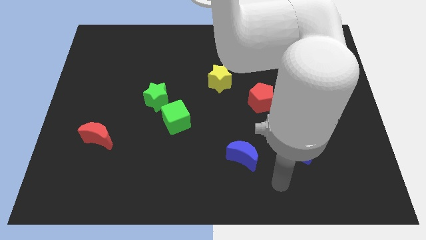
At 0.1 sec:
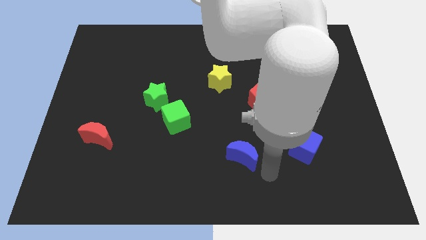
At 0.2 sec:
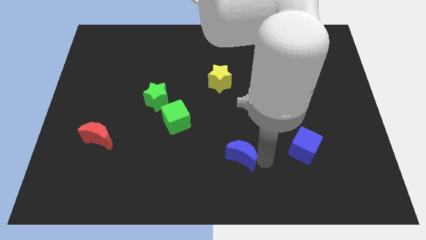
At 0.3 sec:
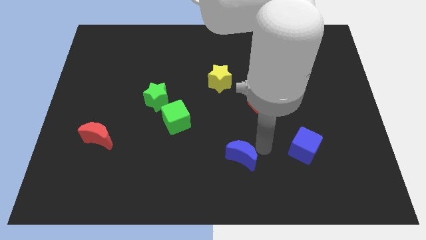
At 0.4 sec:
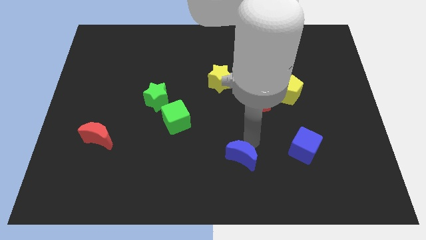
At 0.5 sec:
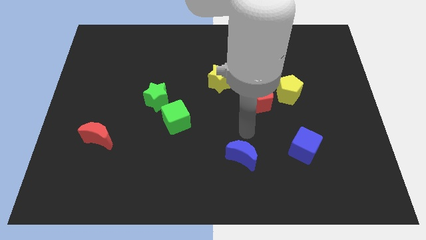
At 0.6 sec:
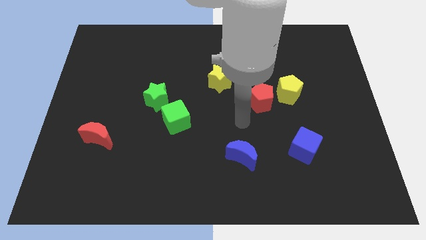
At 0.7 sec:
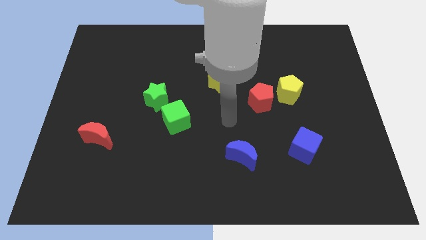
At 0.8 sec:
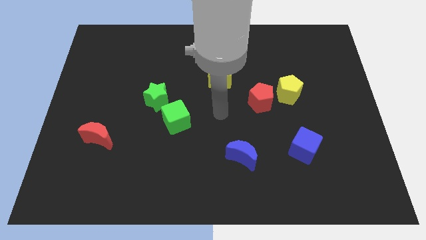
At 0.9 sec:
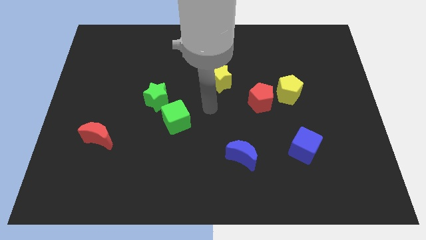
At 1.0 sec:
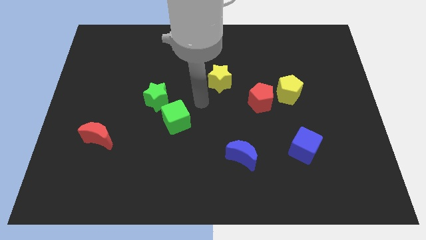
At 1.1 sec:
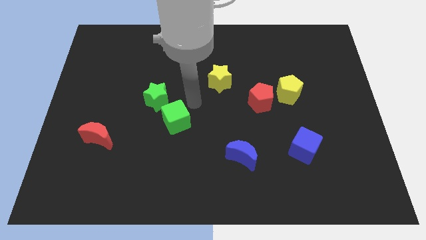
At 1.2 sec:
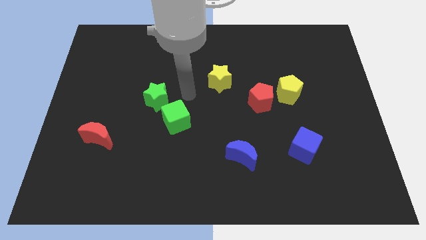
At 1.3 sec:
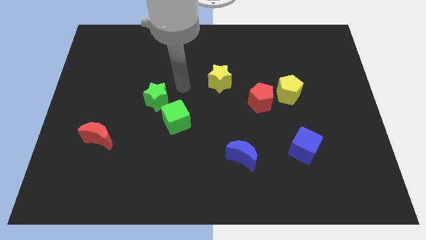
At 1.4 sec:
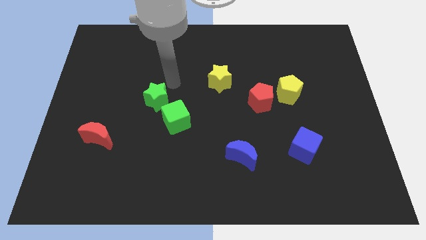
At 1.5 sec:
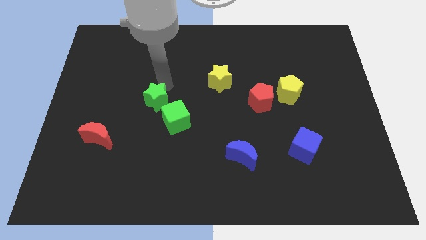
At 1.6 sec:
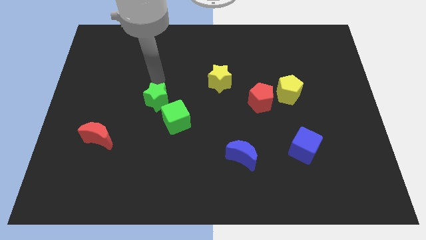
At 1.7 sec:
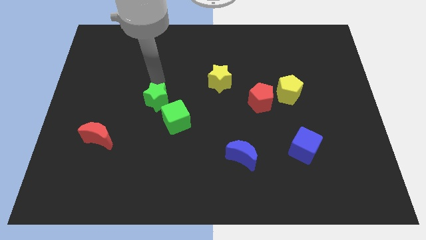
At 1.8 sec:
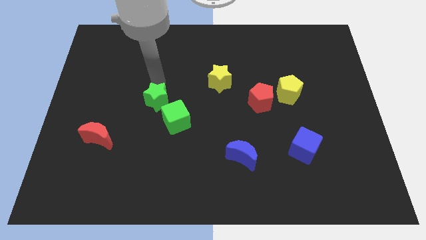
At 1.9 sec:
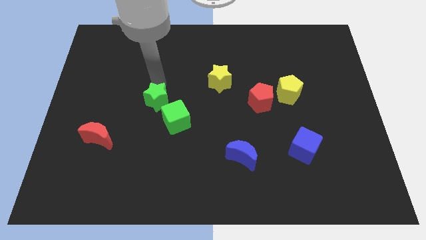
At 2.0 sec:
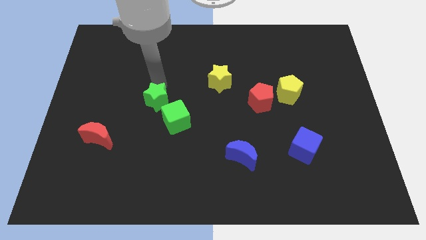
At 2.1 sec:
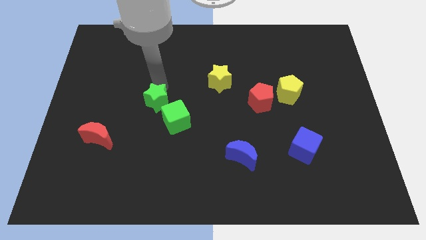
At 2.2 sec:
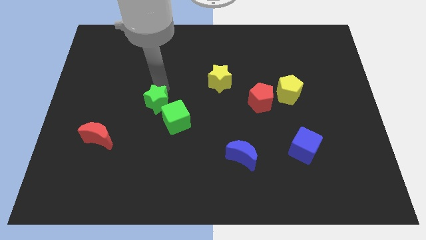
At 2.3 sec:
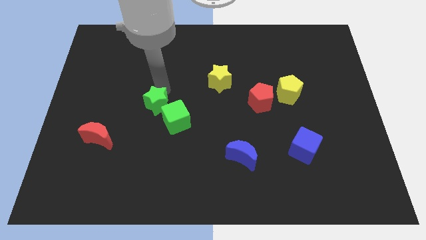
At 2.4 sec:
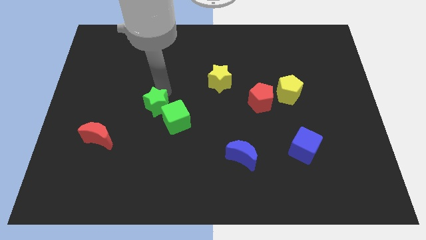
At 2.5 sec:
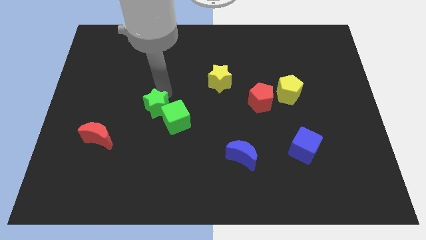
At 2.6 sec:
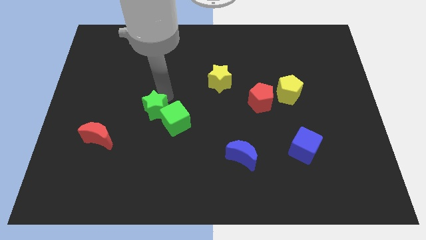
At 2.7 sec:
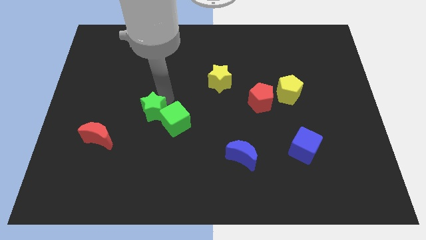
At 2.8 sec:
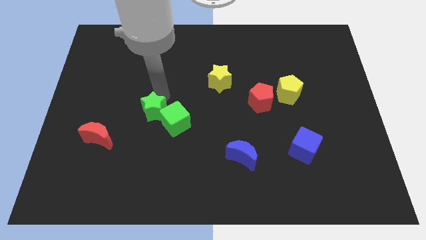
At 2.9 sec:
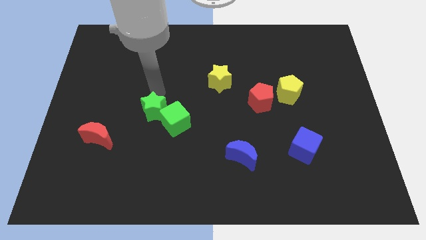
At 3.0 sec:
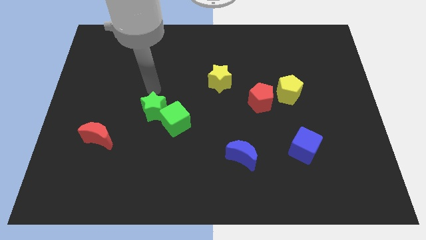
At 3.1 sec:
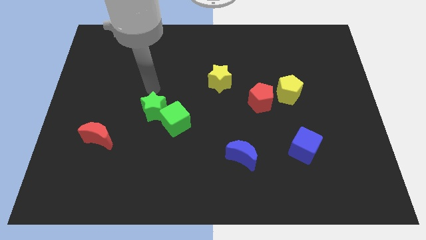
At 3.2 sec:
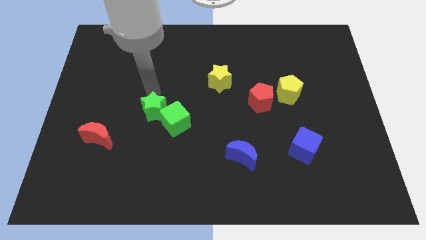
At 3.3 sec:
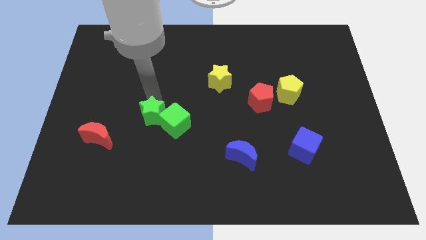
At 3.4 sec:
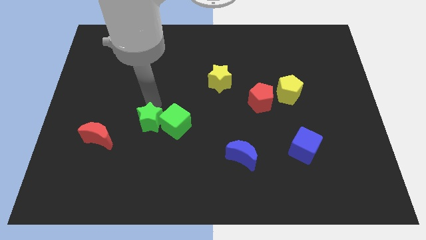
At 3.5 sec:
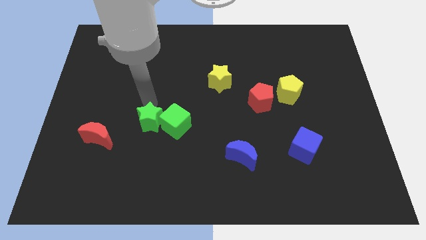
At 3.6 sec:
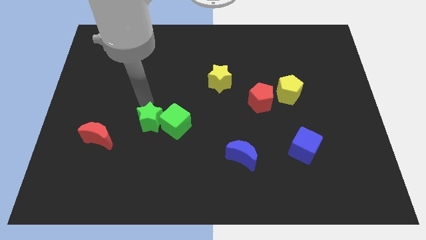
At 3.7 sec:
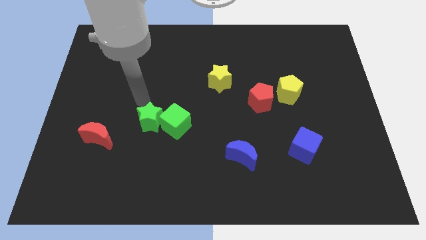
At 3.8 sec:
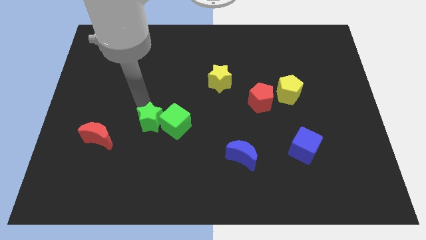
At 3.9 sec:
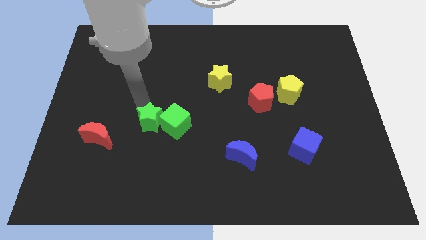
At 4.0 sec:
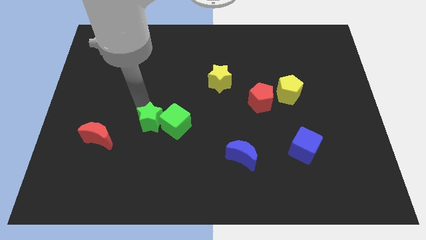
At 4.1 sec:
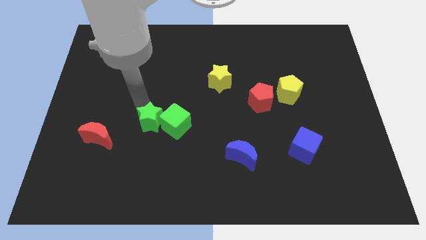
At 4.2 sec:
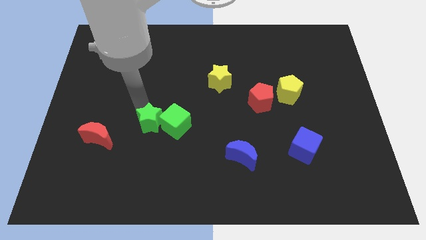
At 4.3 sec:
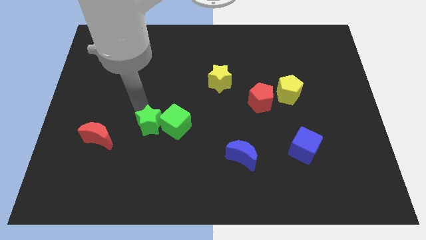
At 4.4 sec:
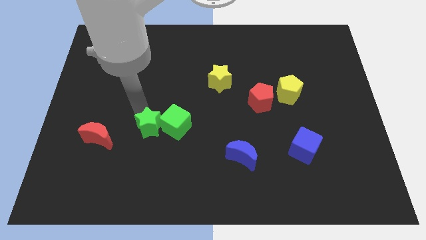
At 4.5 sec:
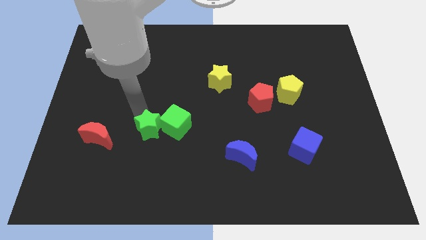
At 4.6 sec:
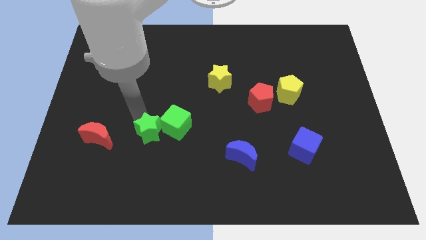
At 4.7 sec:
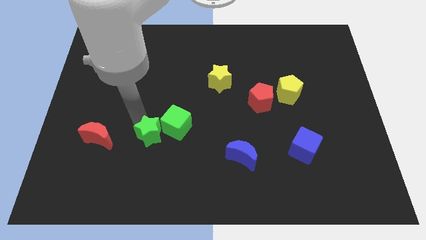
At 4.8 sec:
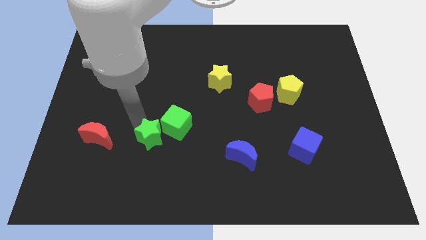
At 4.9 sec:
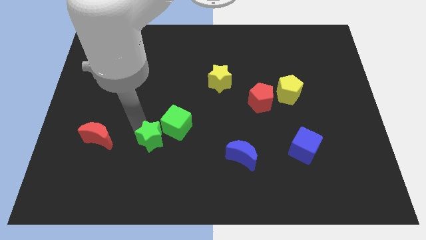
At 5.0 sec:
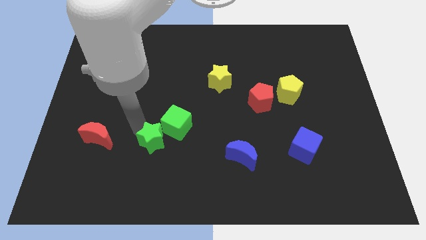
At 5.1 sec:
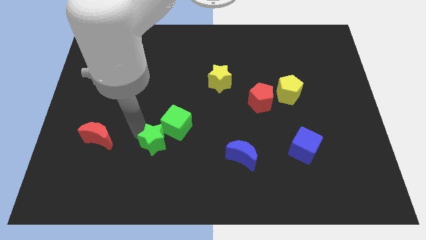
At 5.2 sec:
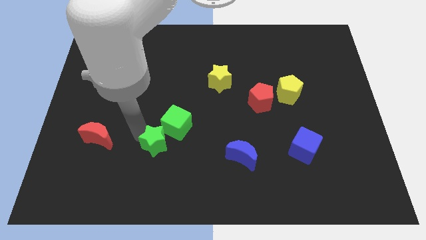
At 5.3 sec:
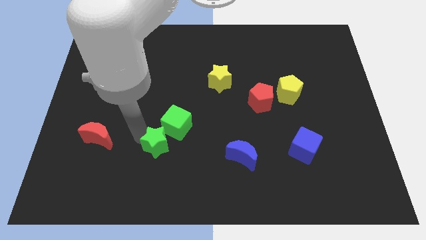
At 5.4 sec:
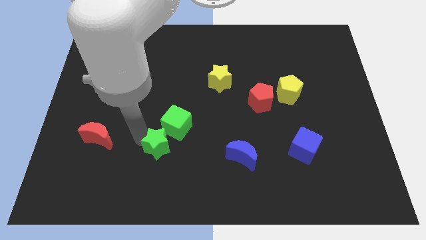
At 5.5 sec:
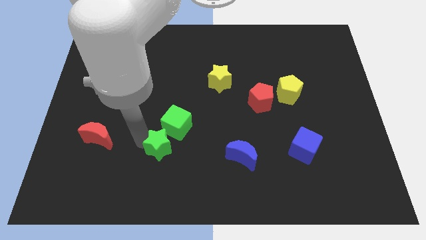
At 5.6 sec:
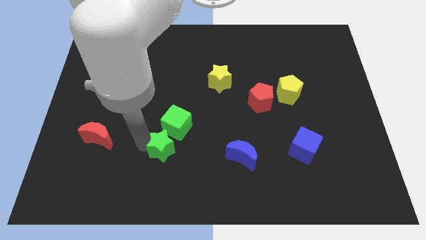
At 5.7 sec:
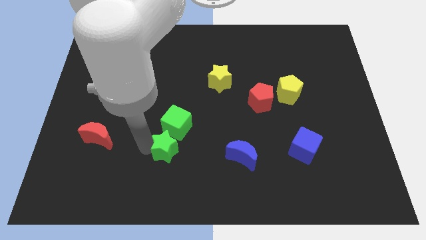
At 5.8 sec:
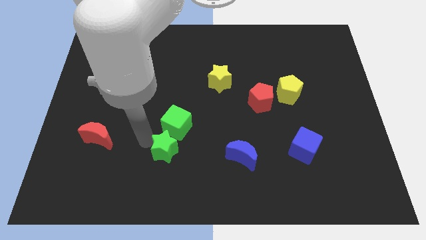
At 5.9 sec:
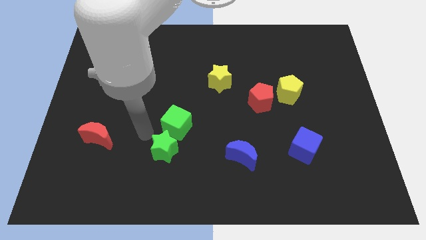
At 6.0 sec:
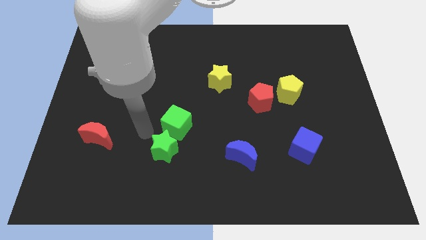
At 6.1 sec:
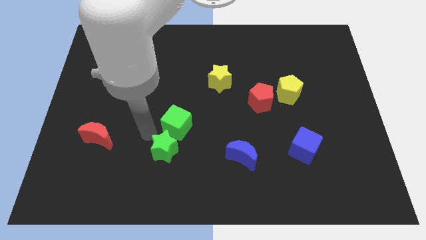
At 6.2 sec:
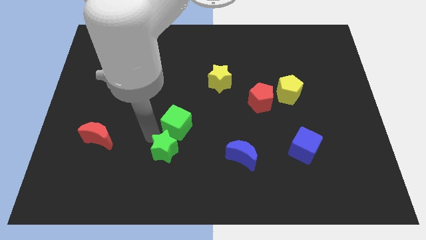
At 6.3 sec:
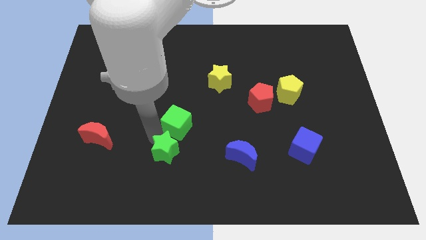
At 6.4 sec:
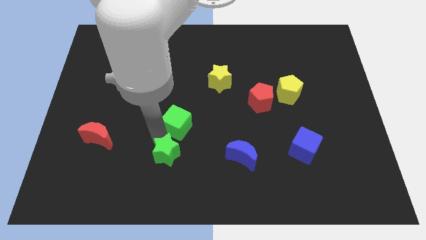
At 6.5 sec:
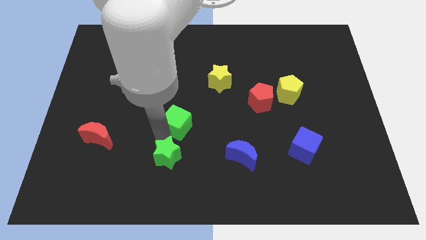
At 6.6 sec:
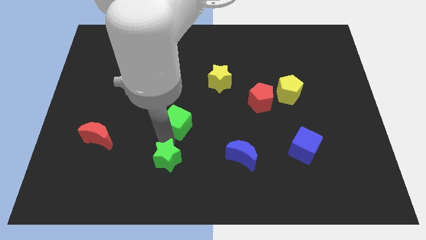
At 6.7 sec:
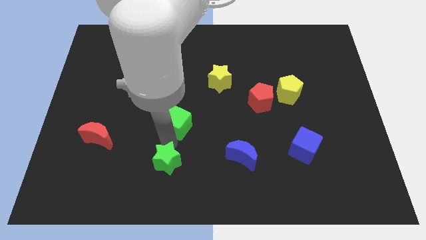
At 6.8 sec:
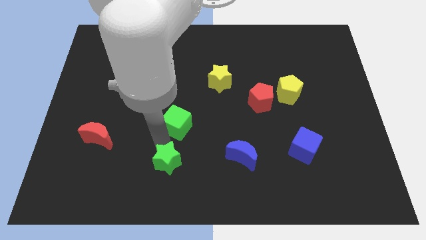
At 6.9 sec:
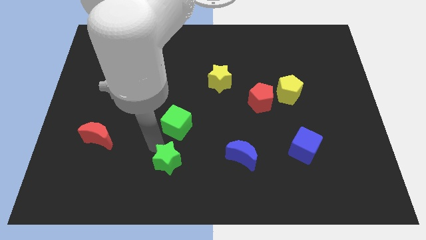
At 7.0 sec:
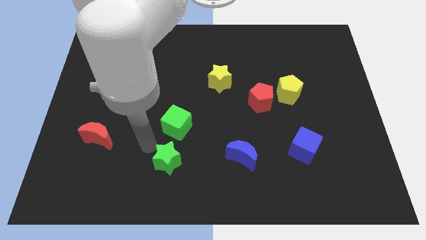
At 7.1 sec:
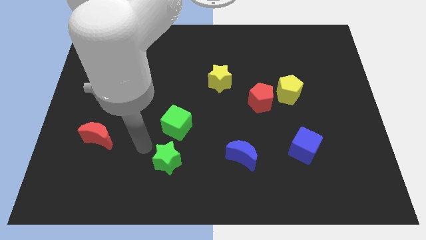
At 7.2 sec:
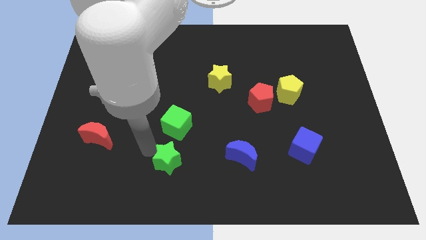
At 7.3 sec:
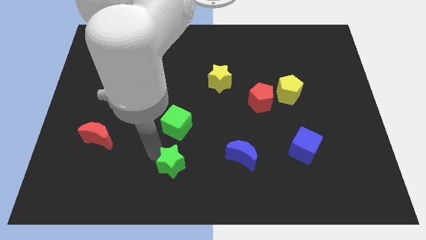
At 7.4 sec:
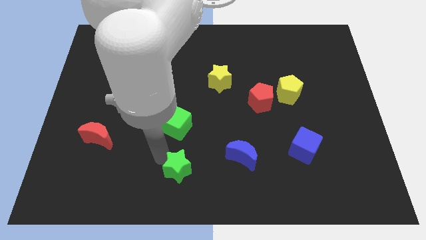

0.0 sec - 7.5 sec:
move the green star to the bottom
